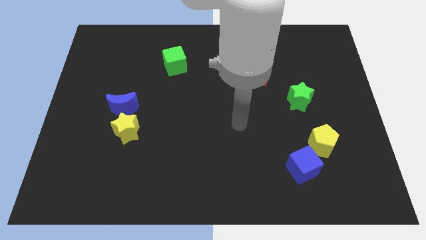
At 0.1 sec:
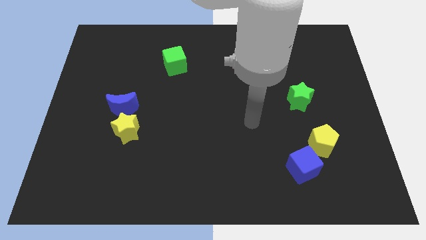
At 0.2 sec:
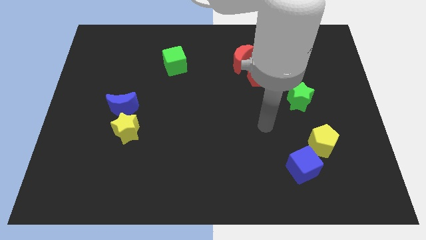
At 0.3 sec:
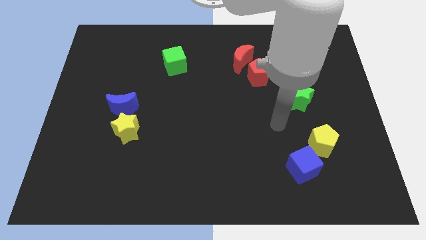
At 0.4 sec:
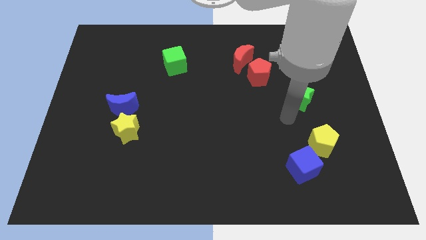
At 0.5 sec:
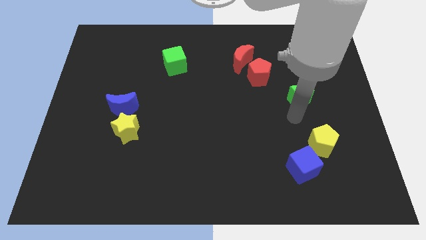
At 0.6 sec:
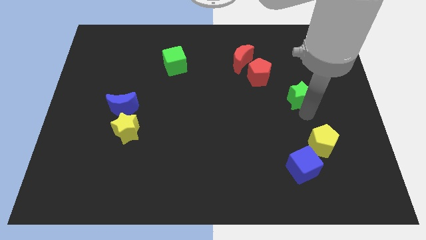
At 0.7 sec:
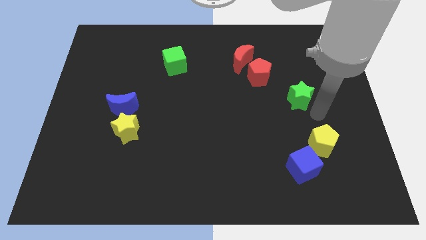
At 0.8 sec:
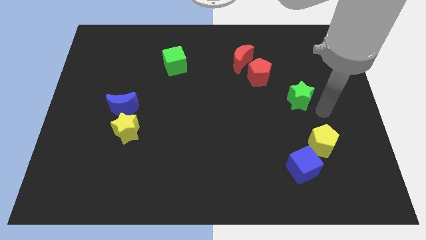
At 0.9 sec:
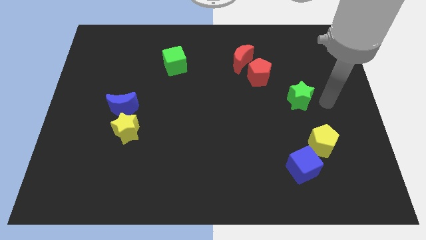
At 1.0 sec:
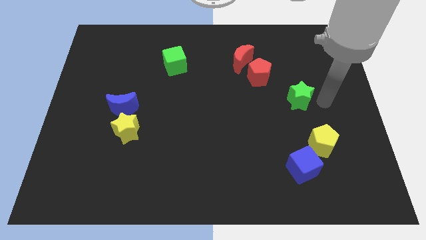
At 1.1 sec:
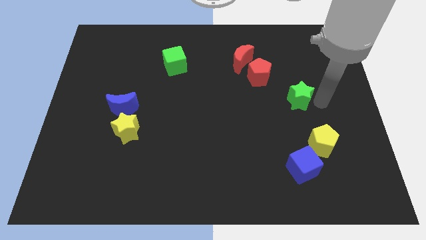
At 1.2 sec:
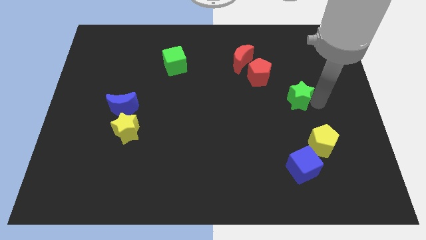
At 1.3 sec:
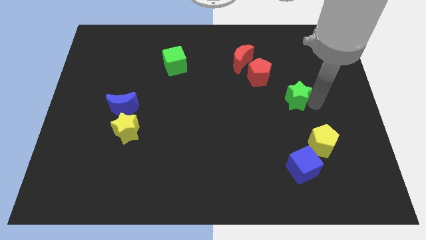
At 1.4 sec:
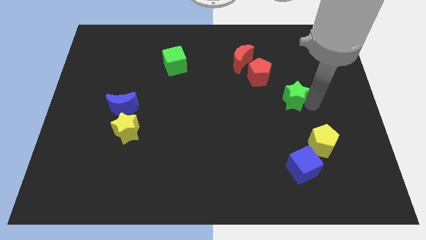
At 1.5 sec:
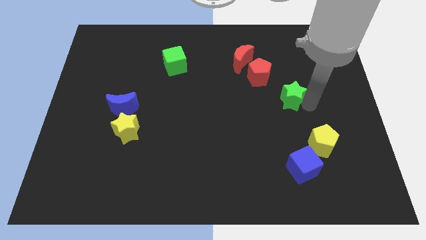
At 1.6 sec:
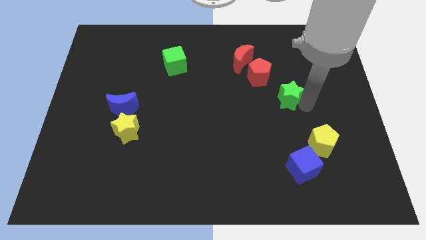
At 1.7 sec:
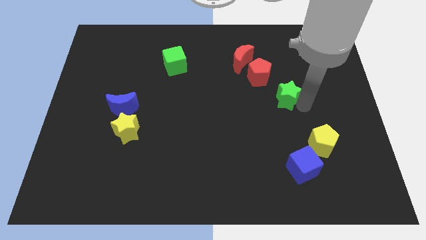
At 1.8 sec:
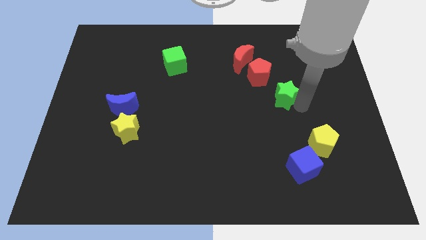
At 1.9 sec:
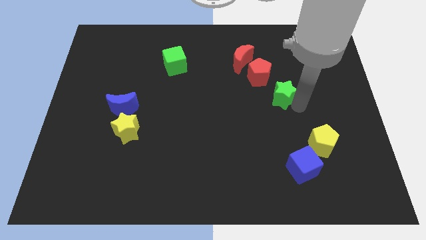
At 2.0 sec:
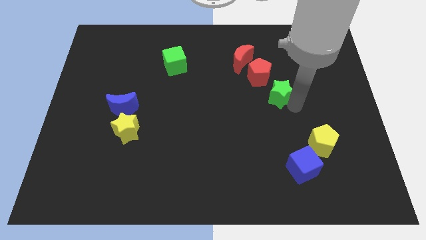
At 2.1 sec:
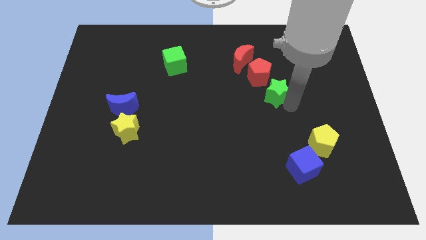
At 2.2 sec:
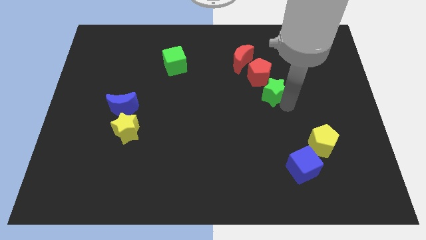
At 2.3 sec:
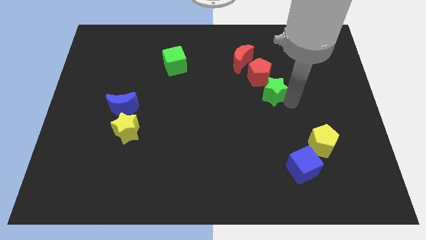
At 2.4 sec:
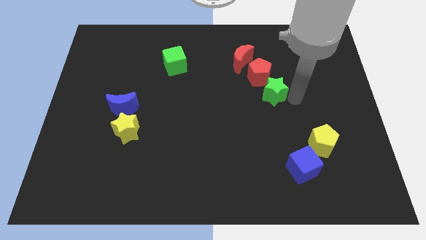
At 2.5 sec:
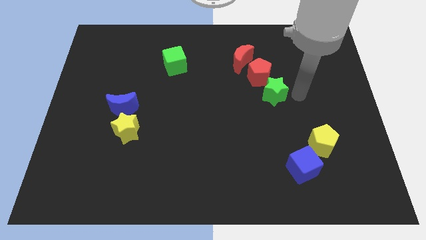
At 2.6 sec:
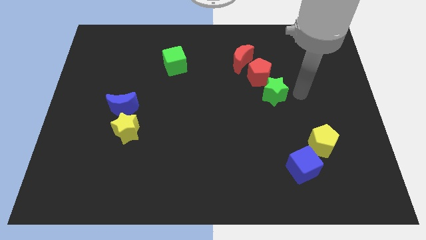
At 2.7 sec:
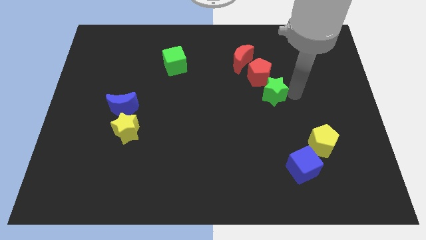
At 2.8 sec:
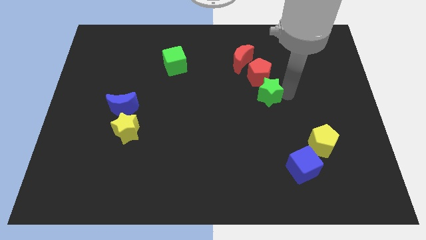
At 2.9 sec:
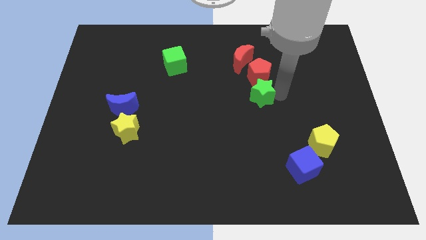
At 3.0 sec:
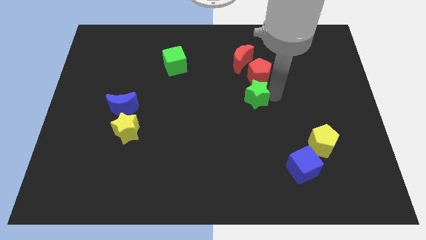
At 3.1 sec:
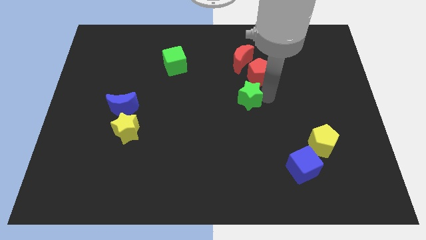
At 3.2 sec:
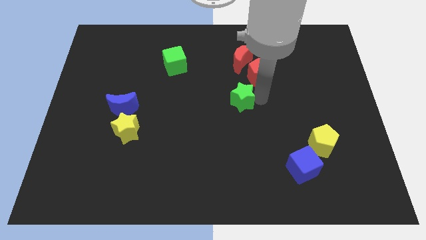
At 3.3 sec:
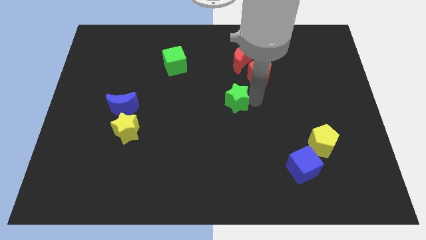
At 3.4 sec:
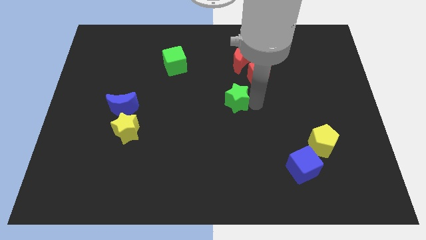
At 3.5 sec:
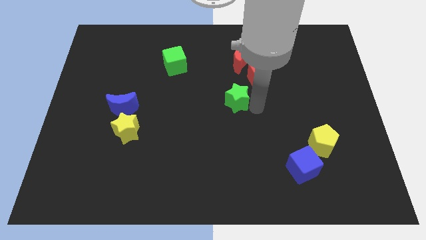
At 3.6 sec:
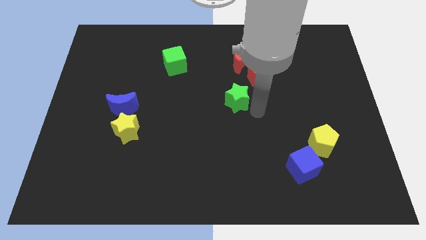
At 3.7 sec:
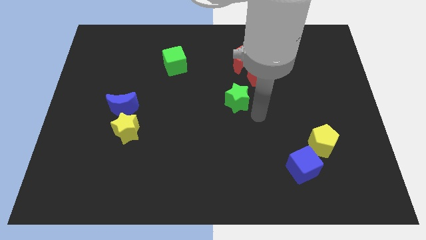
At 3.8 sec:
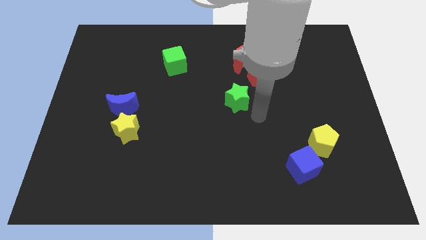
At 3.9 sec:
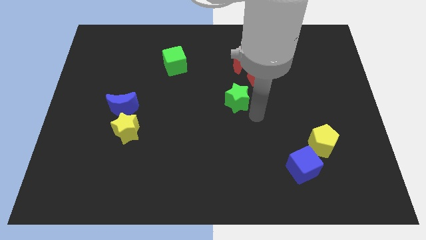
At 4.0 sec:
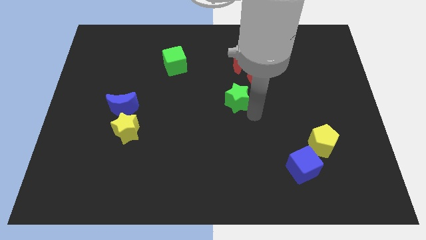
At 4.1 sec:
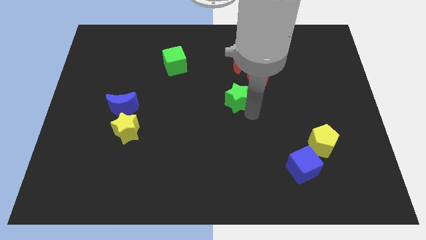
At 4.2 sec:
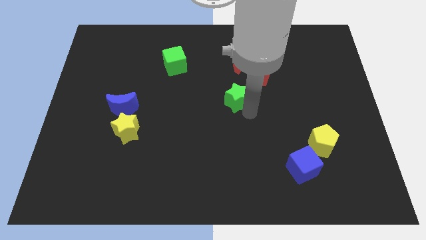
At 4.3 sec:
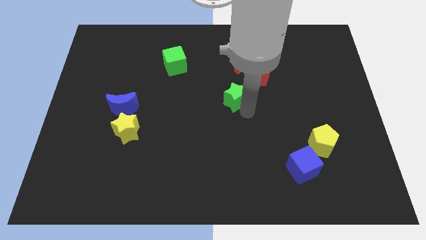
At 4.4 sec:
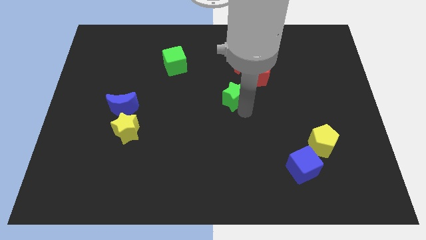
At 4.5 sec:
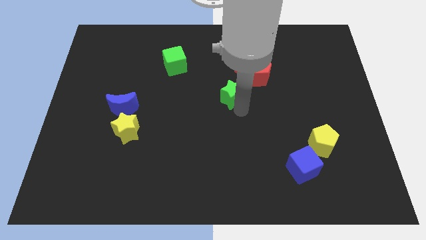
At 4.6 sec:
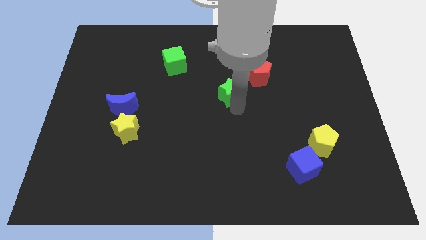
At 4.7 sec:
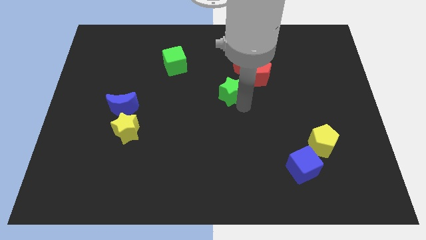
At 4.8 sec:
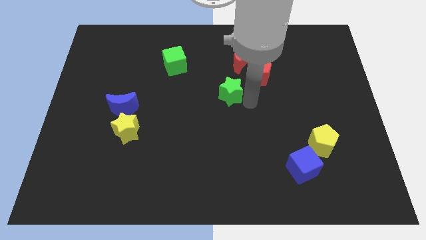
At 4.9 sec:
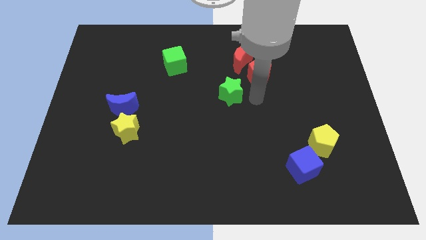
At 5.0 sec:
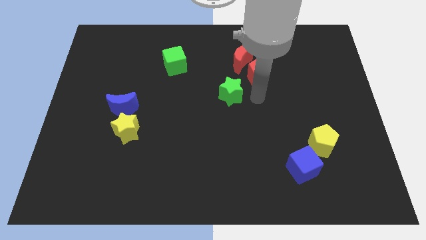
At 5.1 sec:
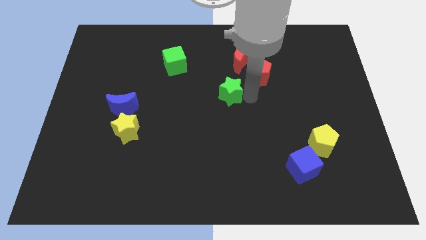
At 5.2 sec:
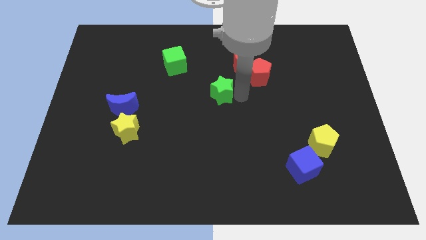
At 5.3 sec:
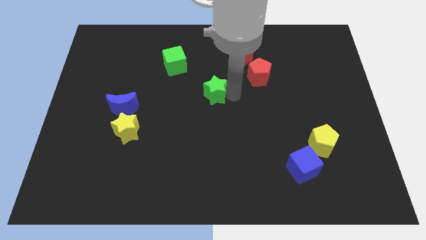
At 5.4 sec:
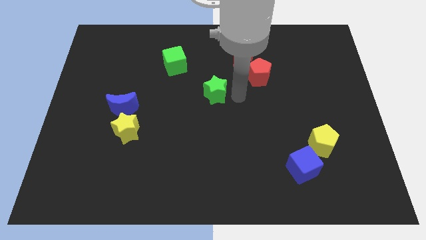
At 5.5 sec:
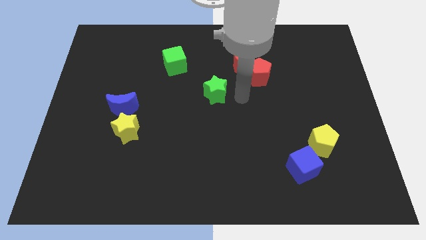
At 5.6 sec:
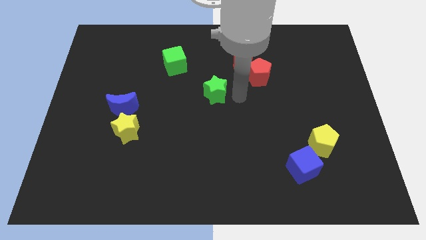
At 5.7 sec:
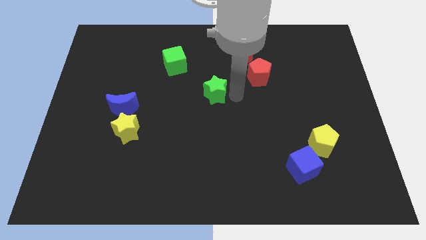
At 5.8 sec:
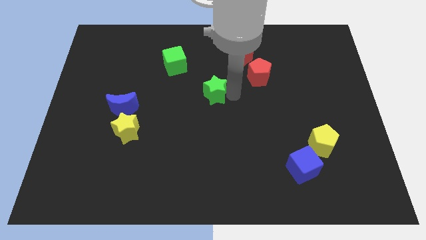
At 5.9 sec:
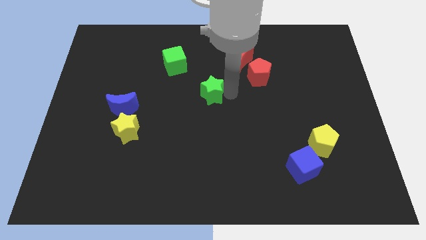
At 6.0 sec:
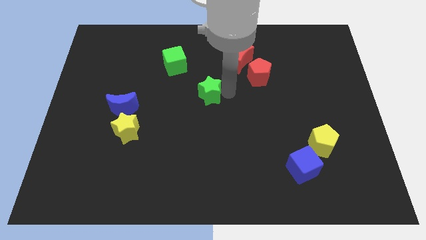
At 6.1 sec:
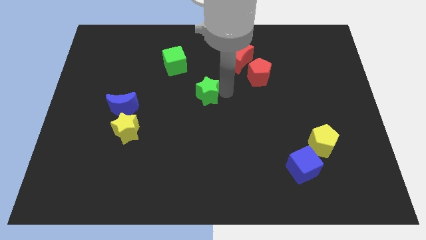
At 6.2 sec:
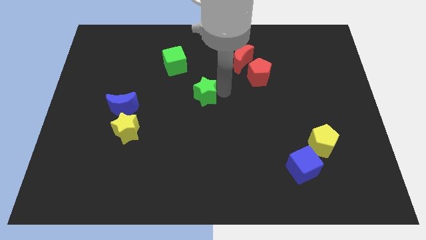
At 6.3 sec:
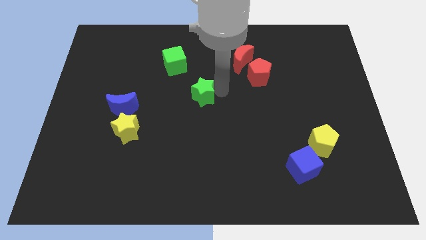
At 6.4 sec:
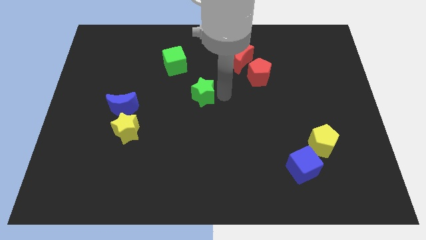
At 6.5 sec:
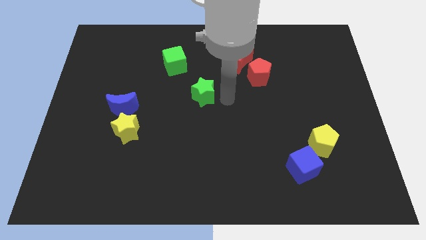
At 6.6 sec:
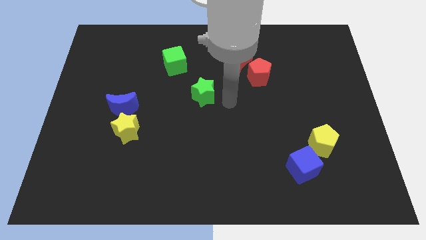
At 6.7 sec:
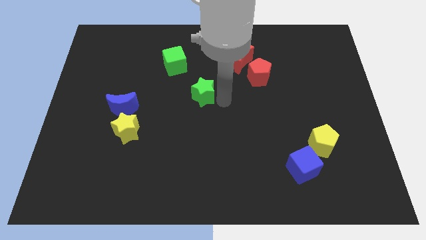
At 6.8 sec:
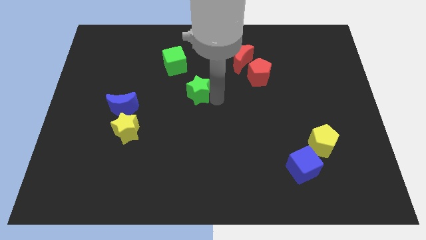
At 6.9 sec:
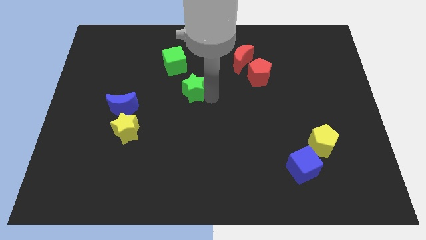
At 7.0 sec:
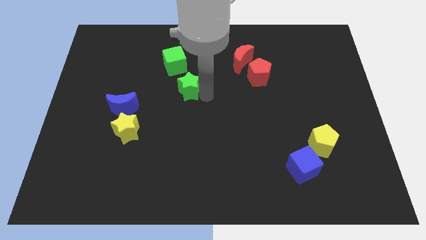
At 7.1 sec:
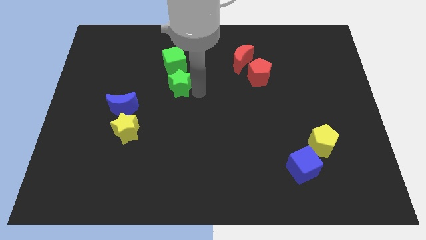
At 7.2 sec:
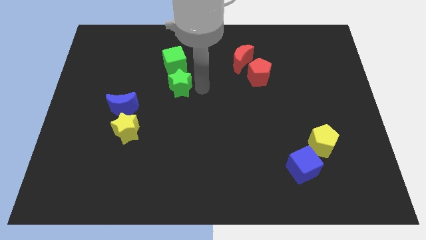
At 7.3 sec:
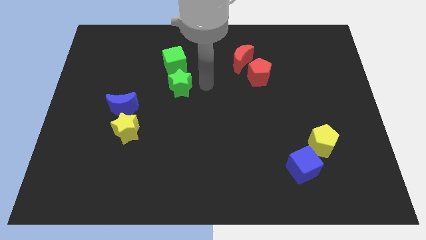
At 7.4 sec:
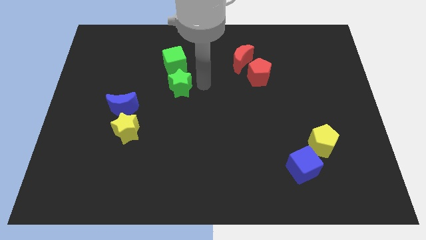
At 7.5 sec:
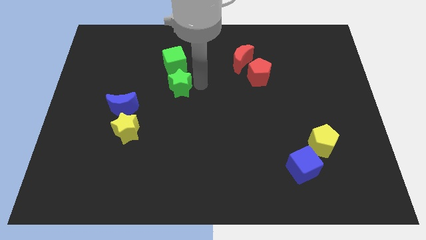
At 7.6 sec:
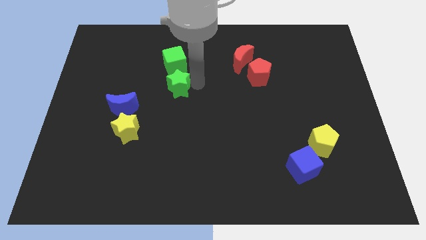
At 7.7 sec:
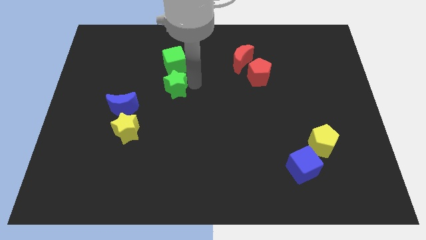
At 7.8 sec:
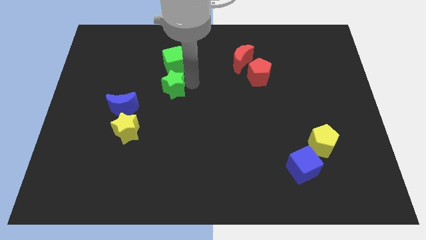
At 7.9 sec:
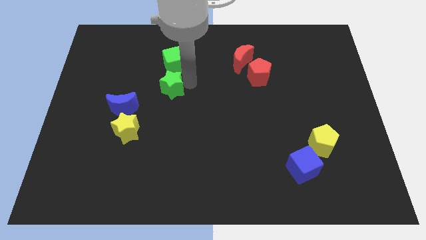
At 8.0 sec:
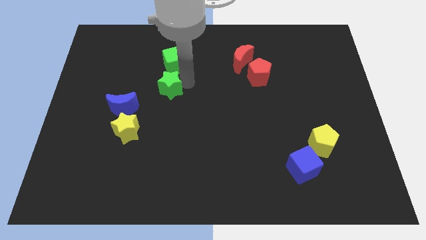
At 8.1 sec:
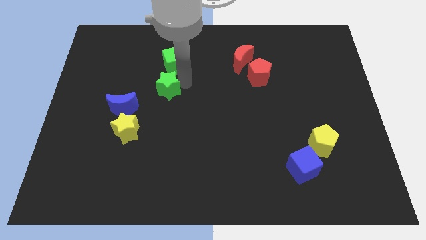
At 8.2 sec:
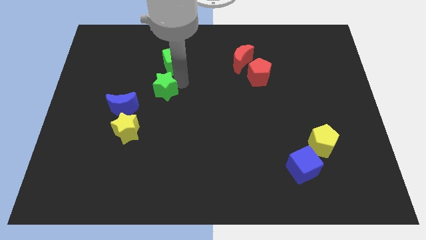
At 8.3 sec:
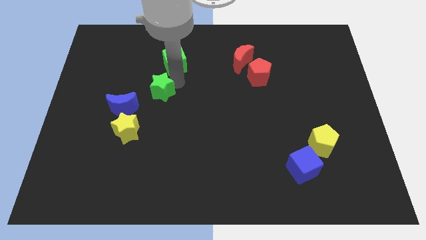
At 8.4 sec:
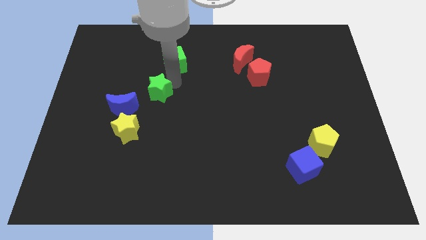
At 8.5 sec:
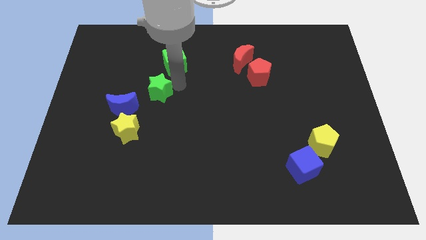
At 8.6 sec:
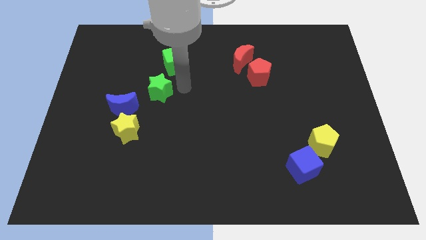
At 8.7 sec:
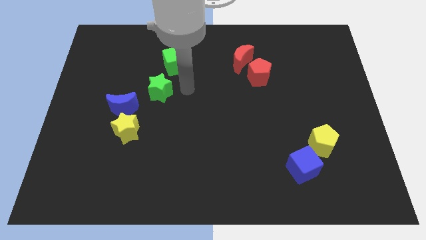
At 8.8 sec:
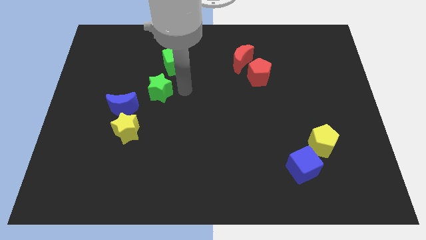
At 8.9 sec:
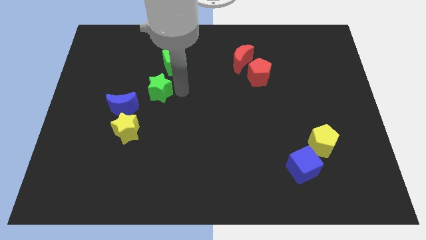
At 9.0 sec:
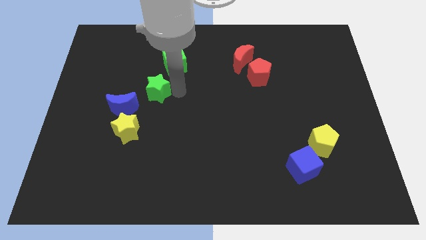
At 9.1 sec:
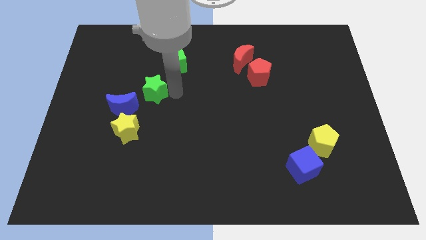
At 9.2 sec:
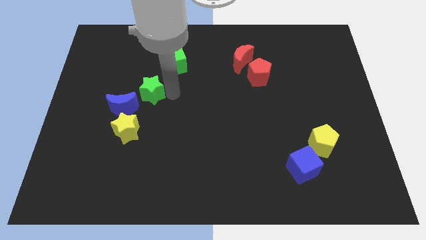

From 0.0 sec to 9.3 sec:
slide the green star to the top of the yellow star
